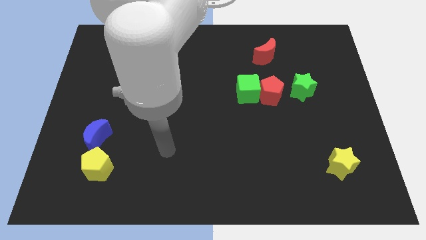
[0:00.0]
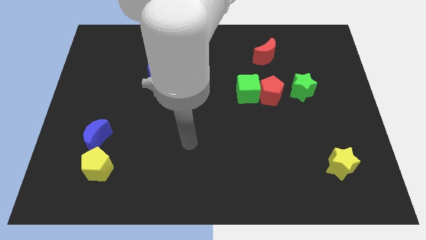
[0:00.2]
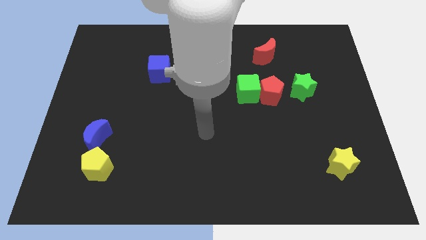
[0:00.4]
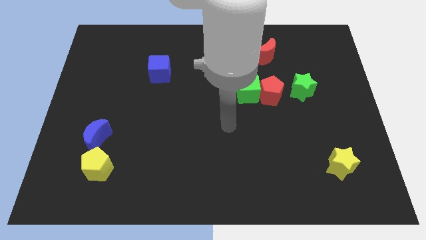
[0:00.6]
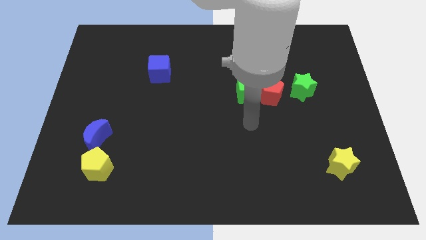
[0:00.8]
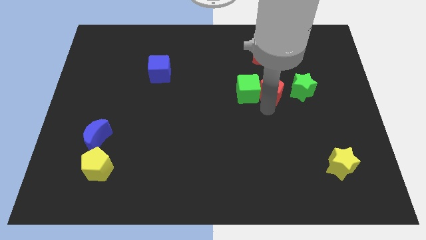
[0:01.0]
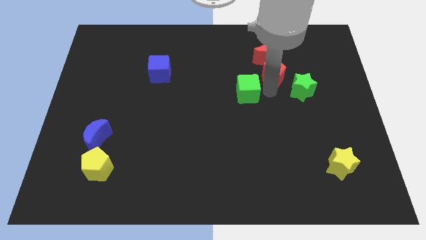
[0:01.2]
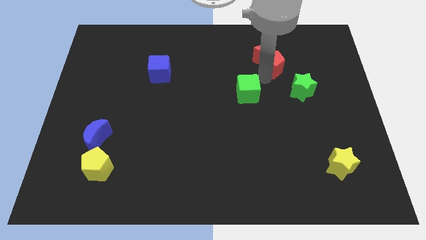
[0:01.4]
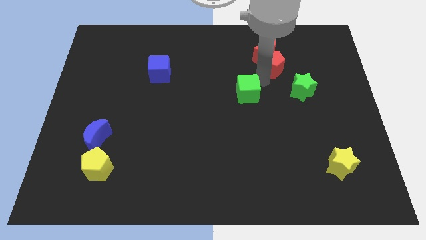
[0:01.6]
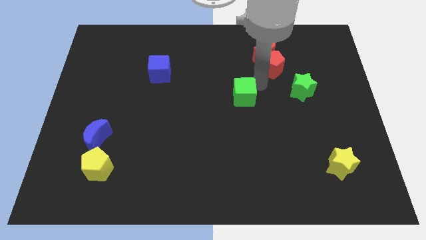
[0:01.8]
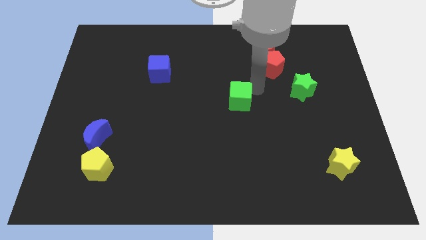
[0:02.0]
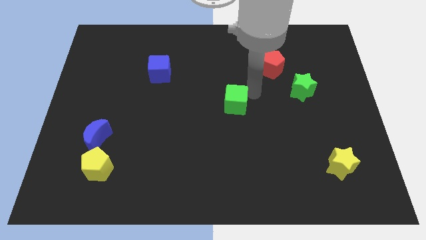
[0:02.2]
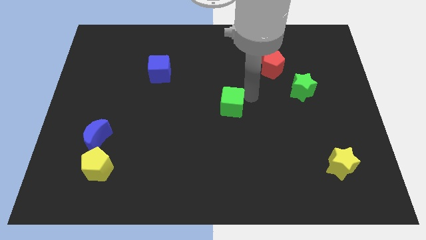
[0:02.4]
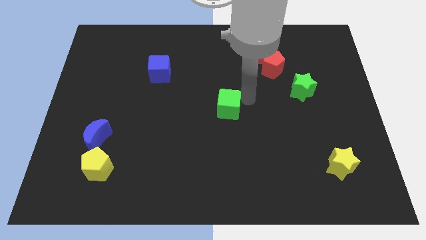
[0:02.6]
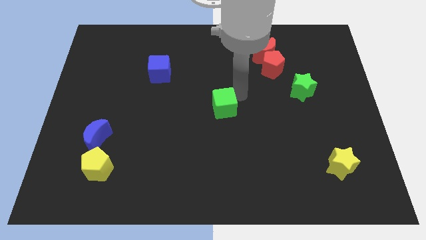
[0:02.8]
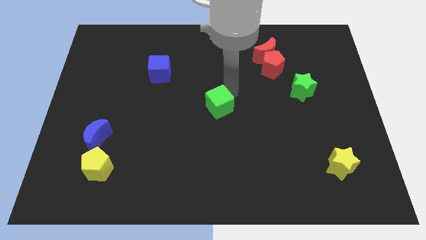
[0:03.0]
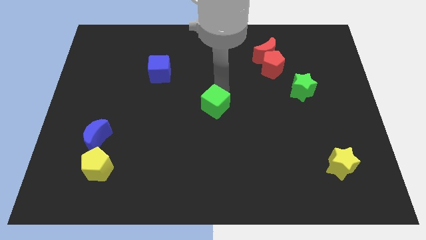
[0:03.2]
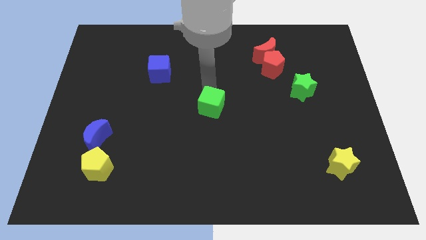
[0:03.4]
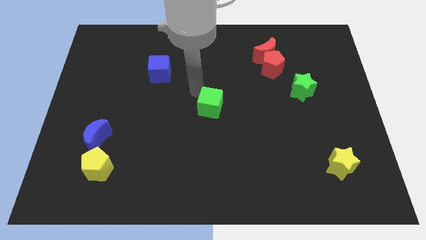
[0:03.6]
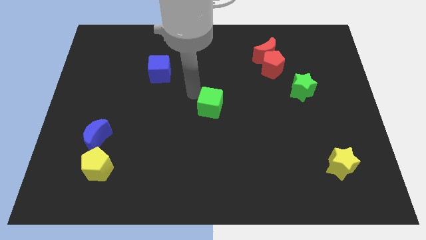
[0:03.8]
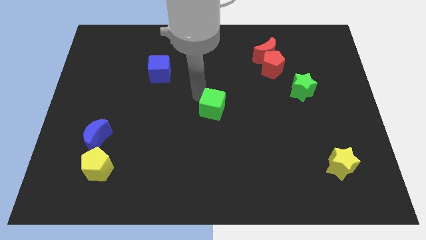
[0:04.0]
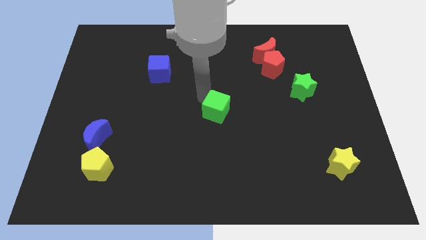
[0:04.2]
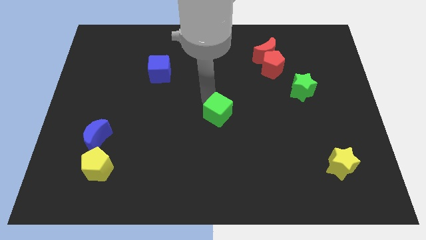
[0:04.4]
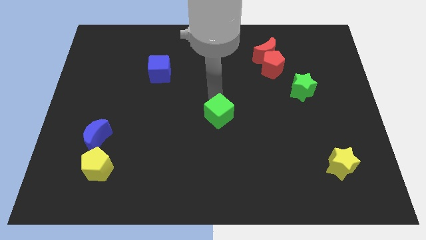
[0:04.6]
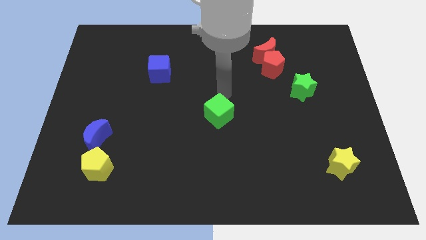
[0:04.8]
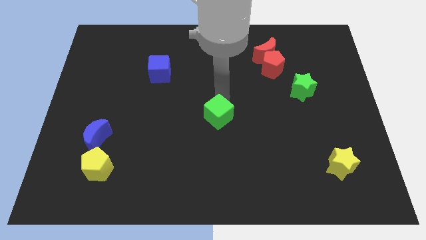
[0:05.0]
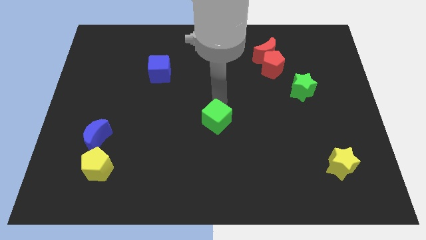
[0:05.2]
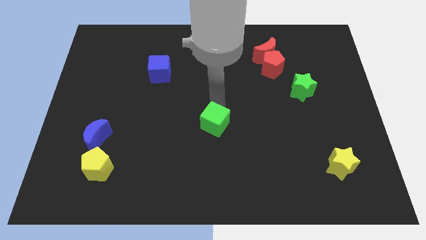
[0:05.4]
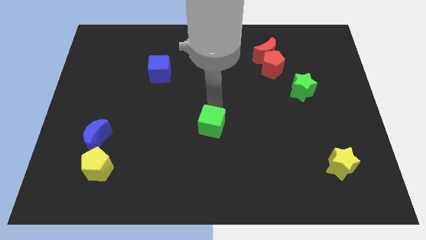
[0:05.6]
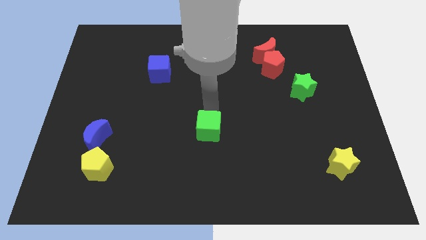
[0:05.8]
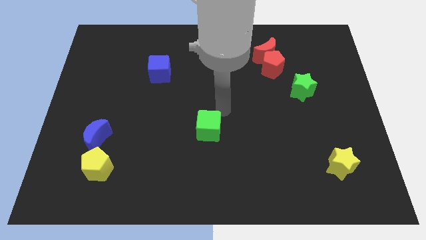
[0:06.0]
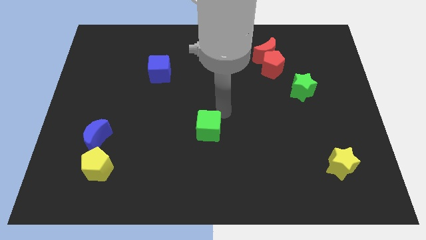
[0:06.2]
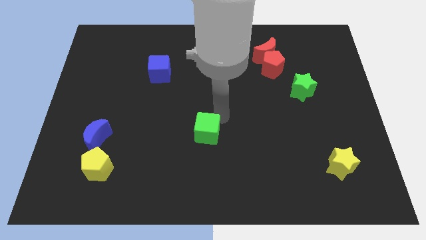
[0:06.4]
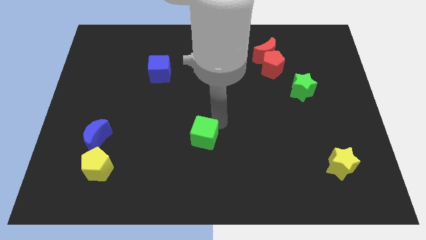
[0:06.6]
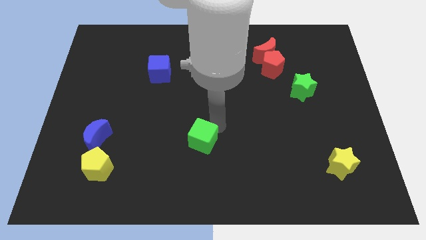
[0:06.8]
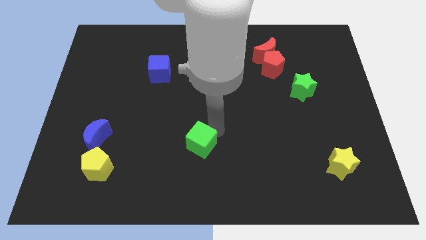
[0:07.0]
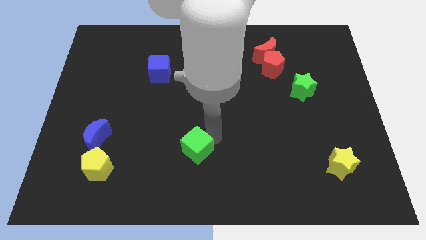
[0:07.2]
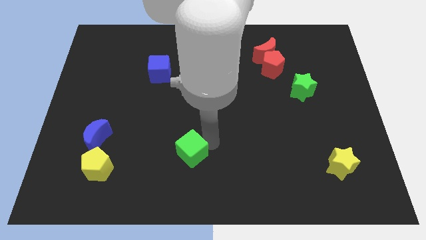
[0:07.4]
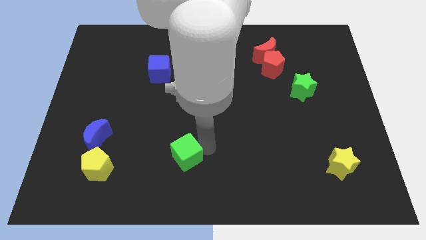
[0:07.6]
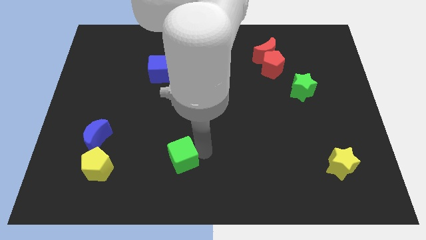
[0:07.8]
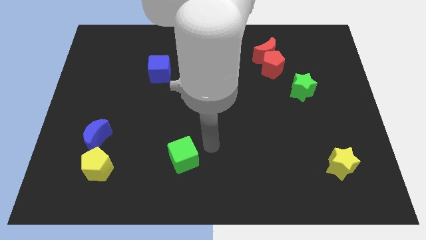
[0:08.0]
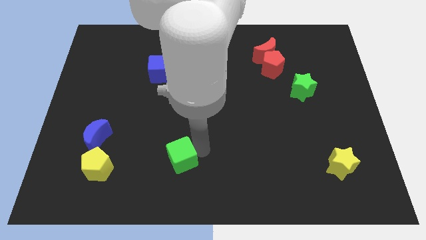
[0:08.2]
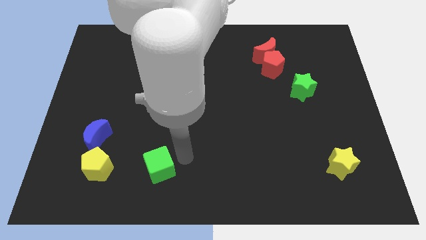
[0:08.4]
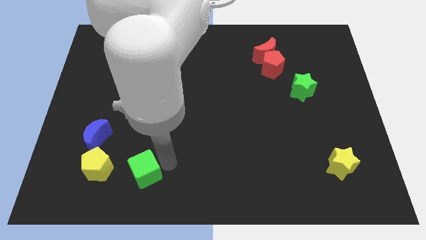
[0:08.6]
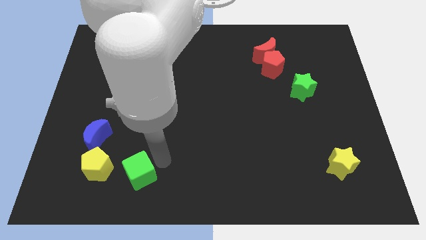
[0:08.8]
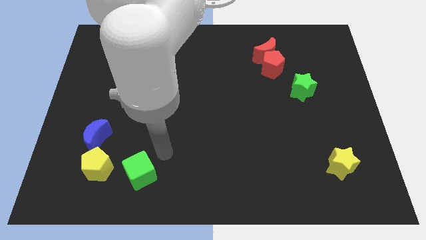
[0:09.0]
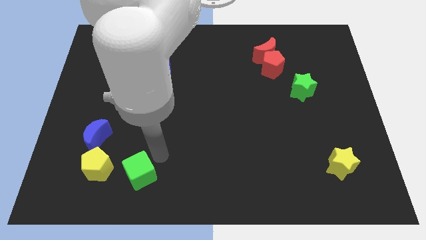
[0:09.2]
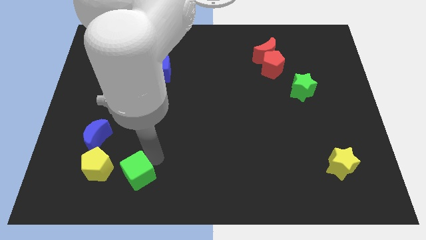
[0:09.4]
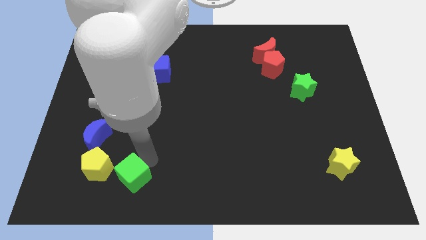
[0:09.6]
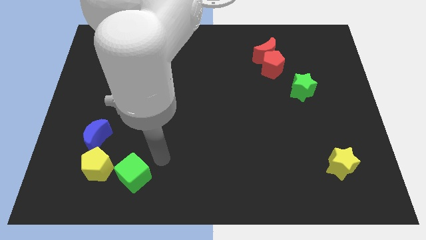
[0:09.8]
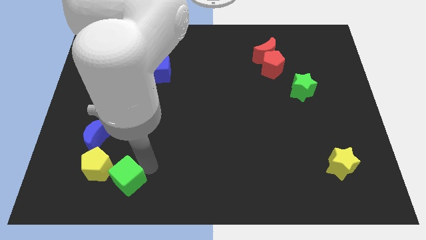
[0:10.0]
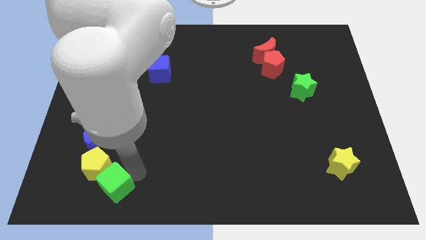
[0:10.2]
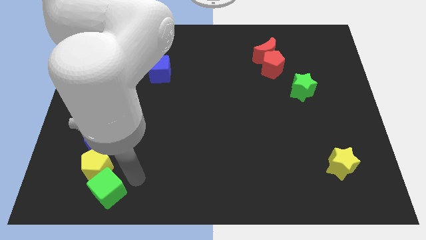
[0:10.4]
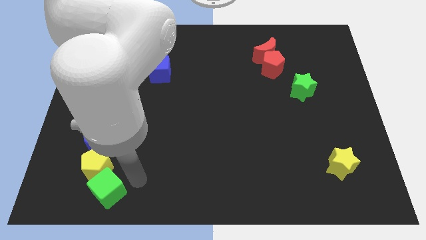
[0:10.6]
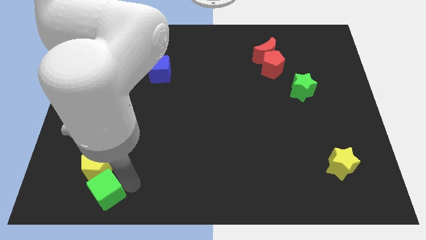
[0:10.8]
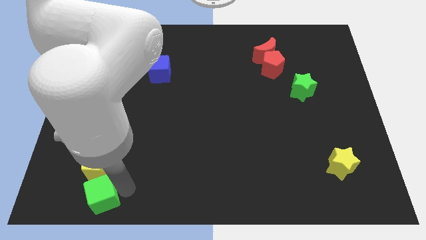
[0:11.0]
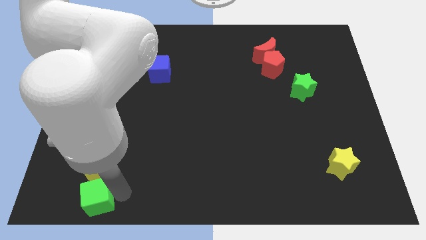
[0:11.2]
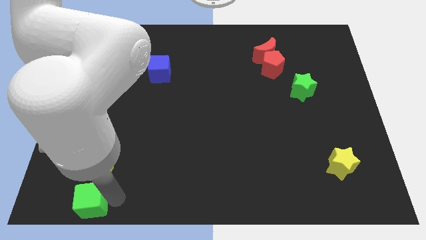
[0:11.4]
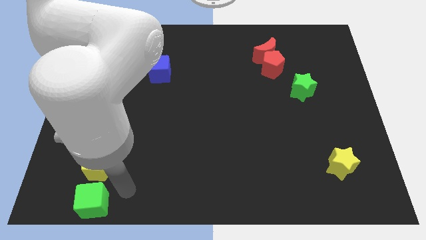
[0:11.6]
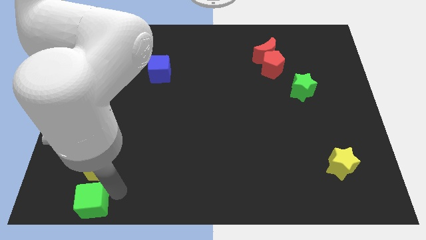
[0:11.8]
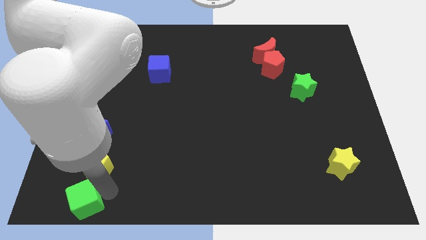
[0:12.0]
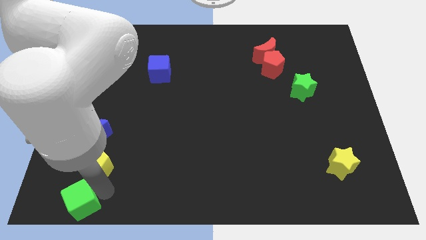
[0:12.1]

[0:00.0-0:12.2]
put the green cube to the bottom left corner

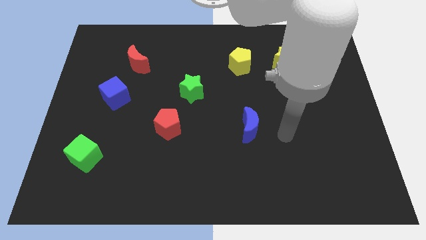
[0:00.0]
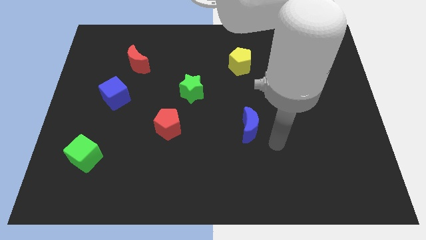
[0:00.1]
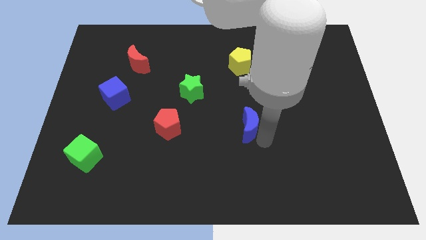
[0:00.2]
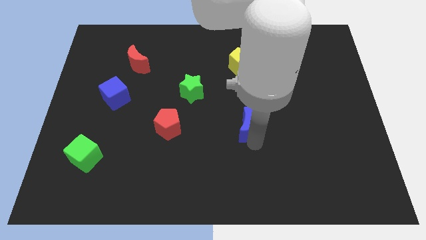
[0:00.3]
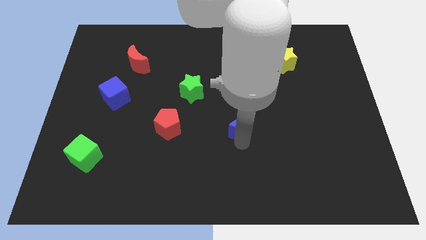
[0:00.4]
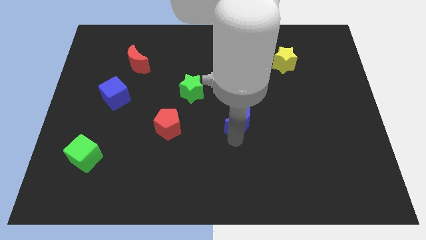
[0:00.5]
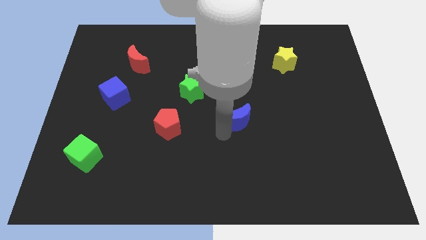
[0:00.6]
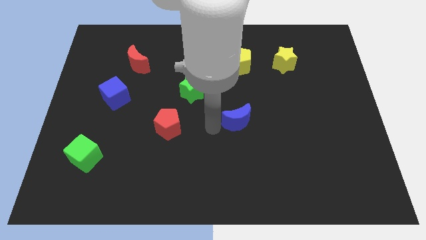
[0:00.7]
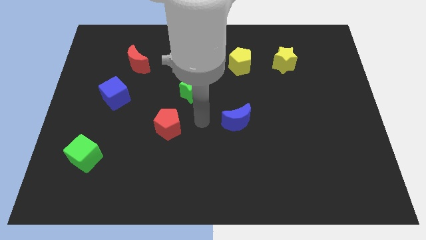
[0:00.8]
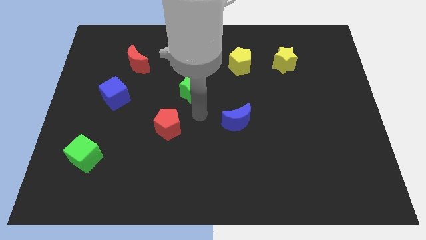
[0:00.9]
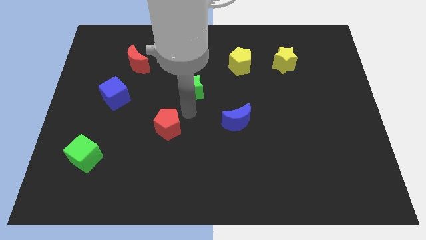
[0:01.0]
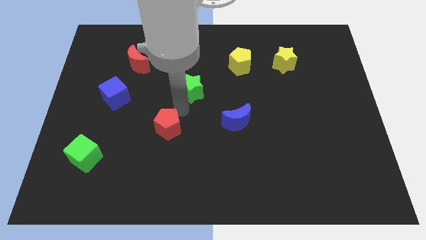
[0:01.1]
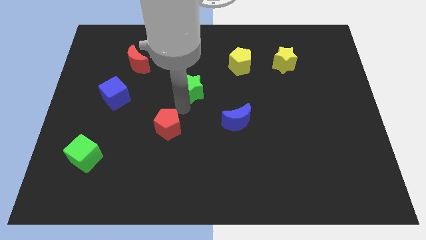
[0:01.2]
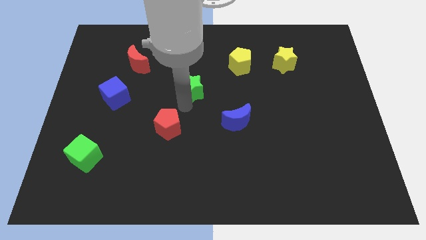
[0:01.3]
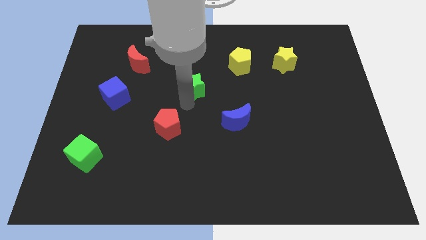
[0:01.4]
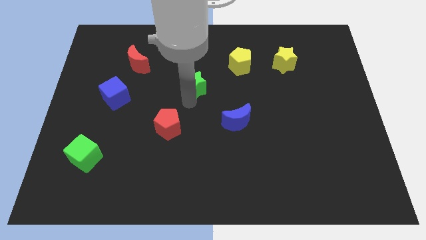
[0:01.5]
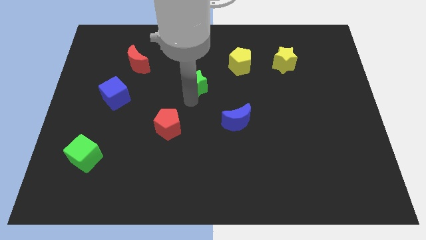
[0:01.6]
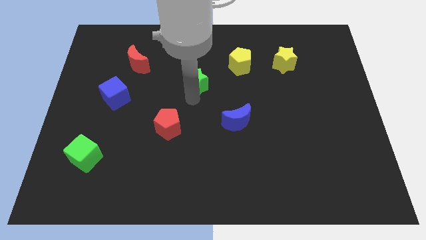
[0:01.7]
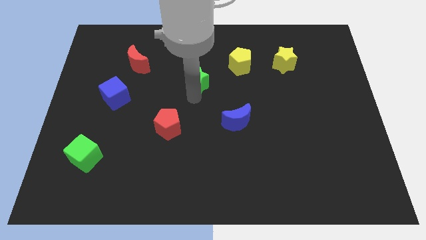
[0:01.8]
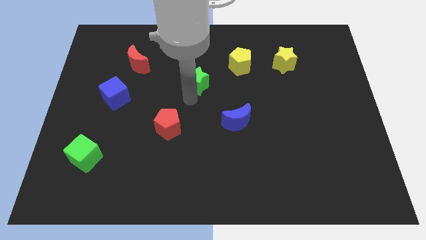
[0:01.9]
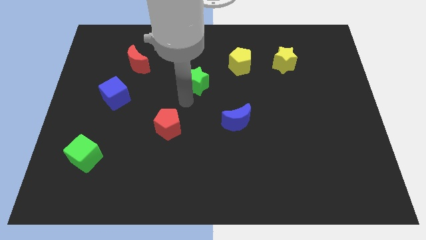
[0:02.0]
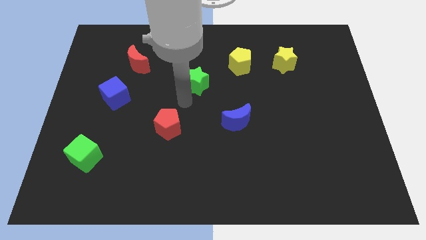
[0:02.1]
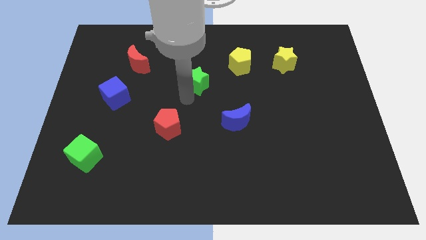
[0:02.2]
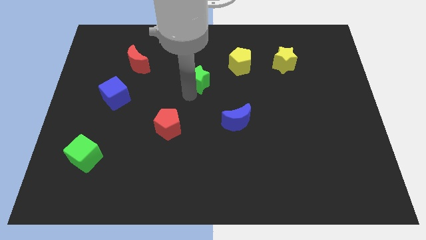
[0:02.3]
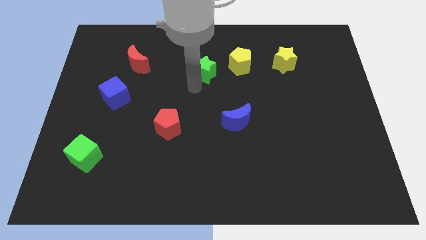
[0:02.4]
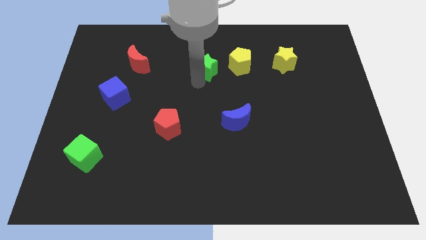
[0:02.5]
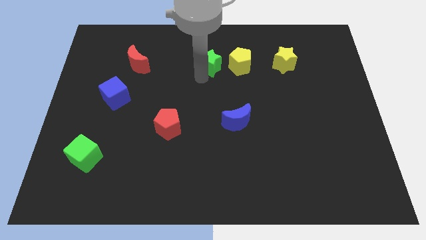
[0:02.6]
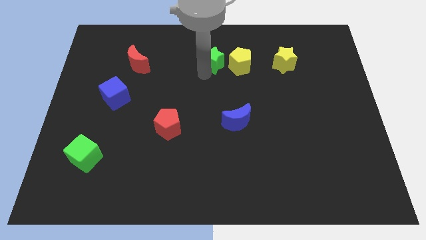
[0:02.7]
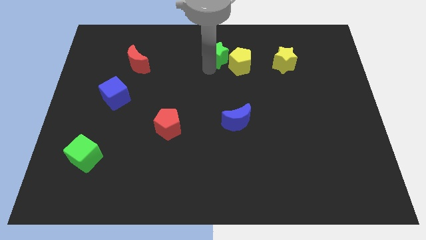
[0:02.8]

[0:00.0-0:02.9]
slide the green star to the top side
